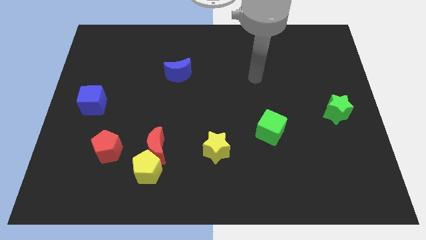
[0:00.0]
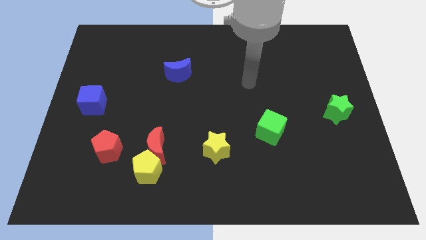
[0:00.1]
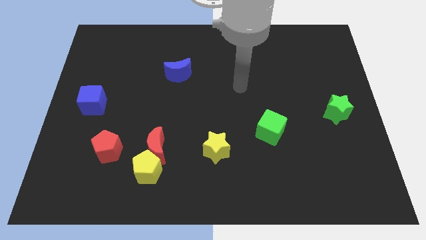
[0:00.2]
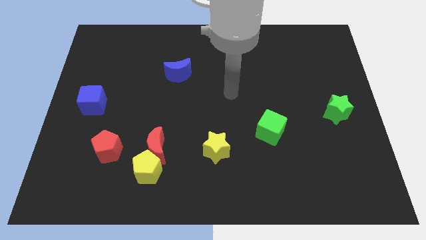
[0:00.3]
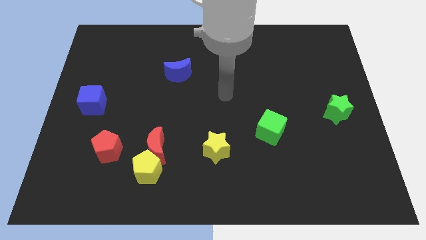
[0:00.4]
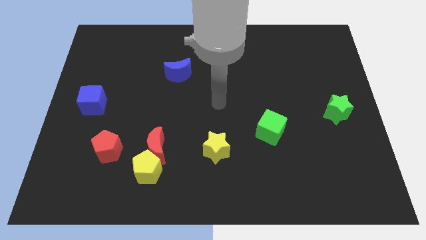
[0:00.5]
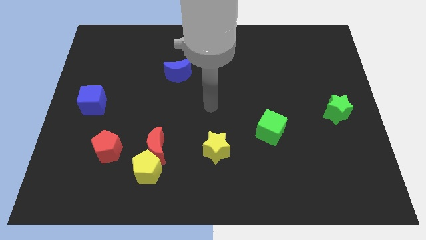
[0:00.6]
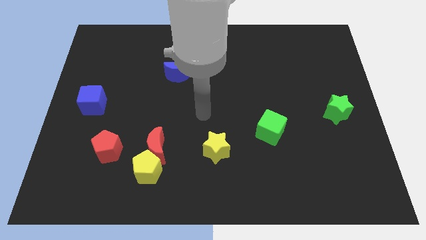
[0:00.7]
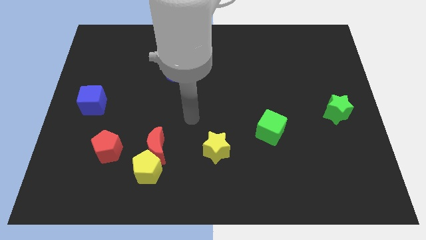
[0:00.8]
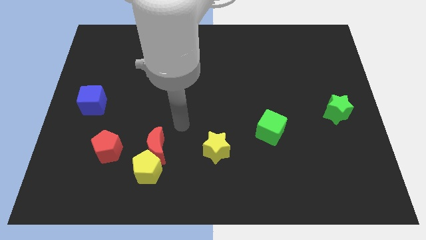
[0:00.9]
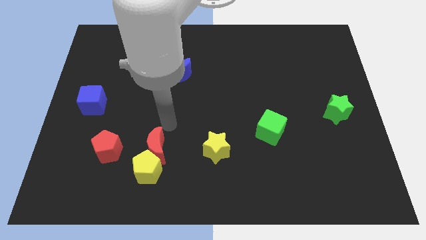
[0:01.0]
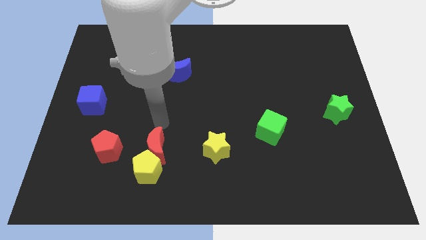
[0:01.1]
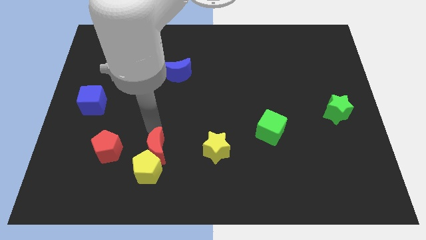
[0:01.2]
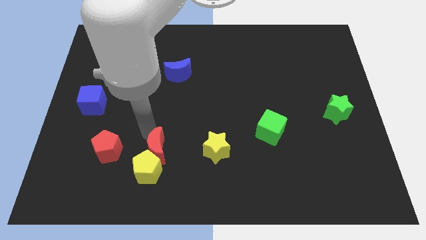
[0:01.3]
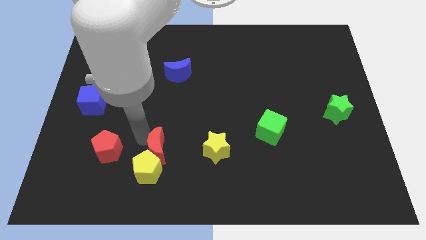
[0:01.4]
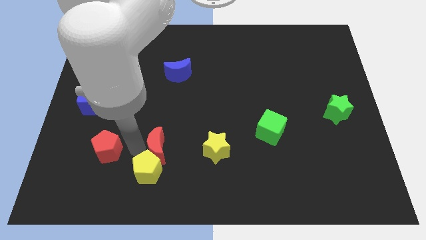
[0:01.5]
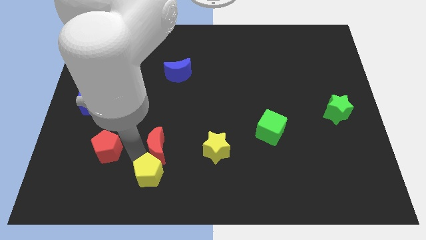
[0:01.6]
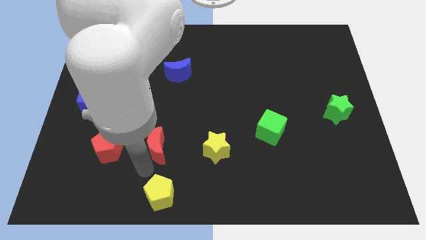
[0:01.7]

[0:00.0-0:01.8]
separate the red moon from the yellow pentagon

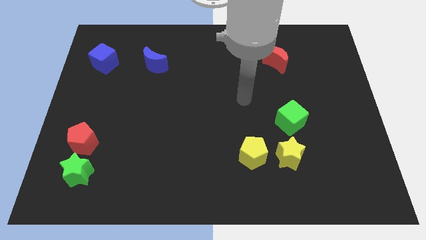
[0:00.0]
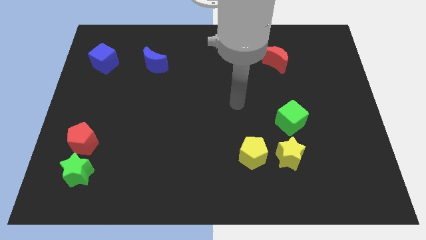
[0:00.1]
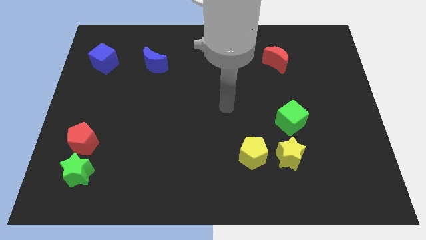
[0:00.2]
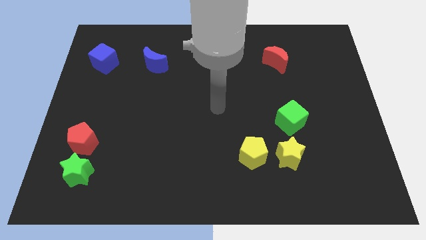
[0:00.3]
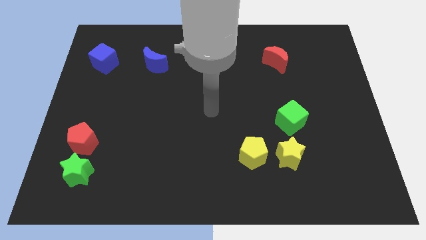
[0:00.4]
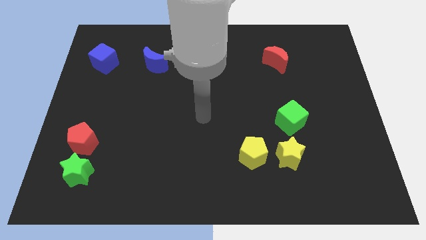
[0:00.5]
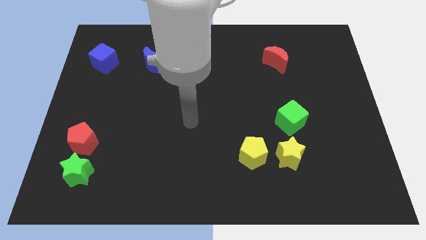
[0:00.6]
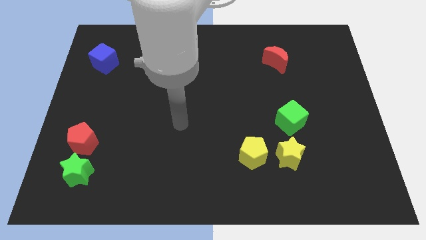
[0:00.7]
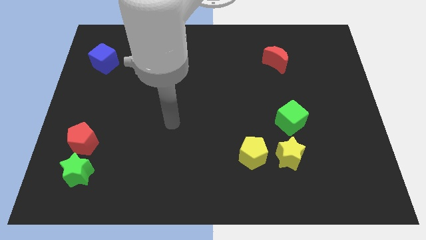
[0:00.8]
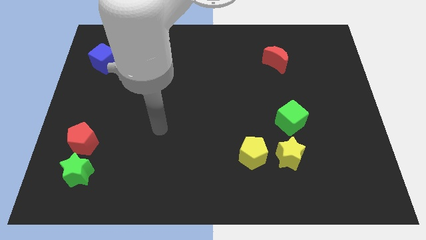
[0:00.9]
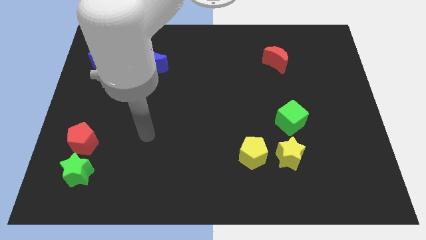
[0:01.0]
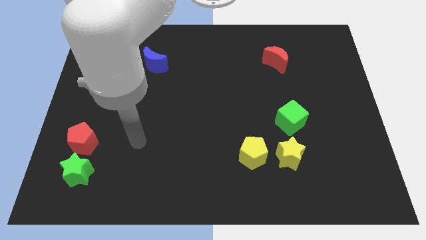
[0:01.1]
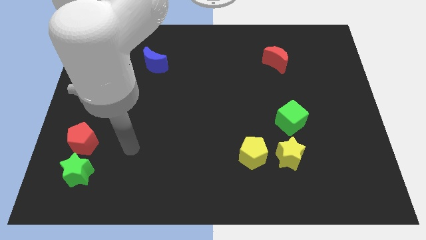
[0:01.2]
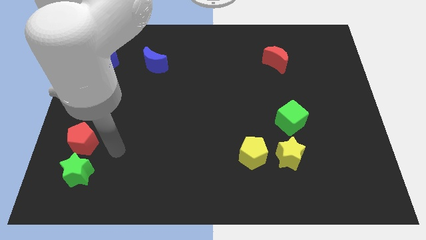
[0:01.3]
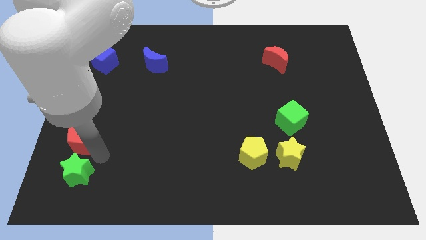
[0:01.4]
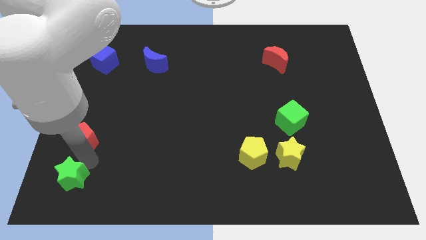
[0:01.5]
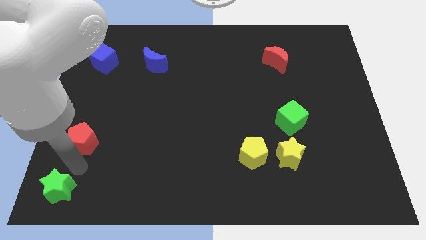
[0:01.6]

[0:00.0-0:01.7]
pull the red pentagon apart from the green star

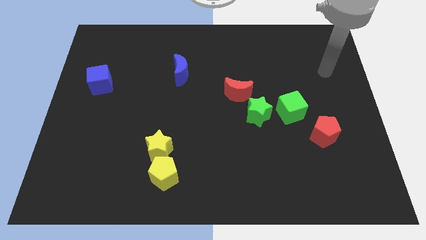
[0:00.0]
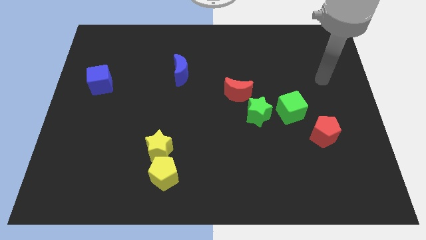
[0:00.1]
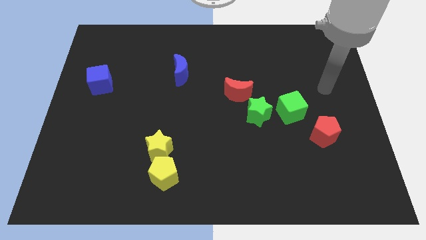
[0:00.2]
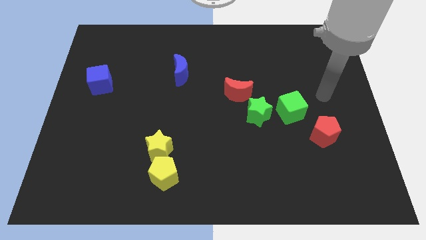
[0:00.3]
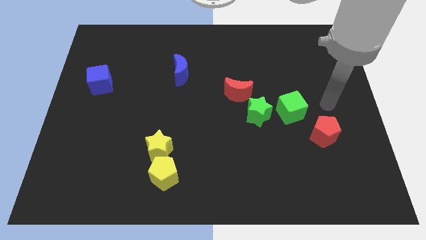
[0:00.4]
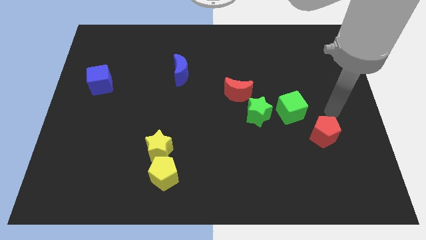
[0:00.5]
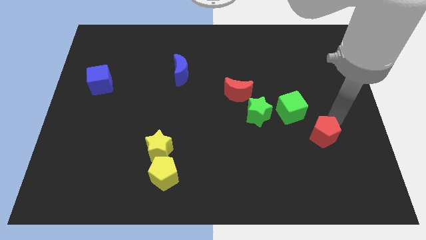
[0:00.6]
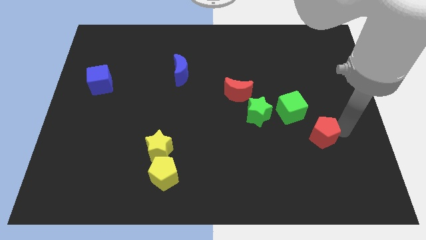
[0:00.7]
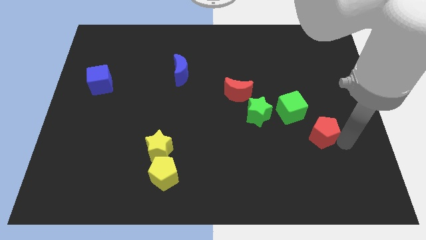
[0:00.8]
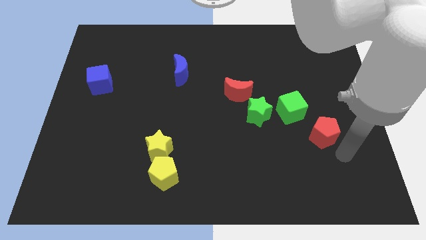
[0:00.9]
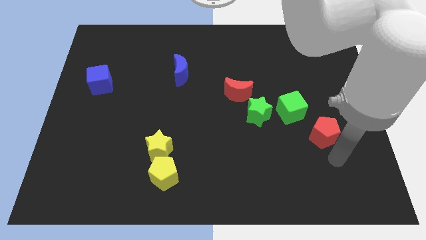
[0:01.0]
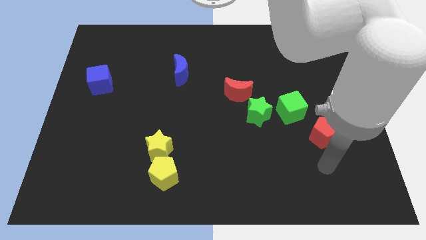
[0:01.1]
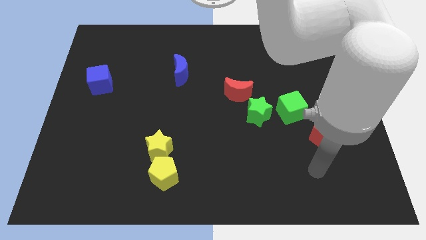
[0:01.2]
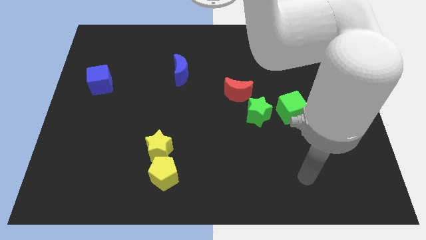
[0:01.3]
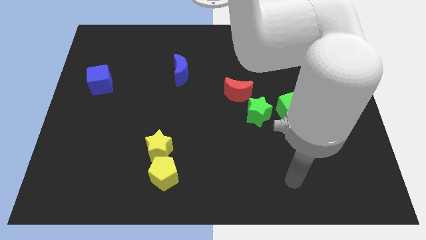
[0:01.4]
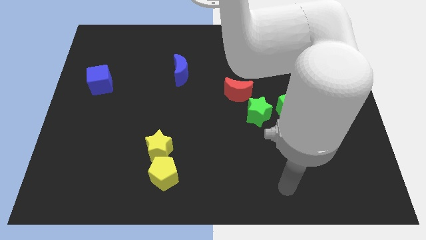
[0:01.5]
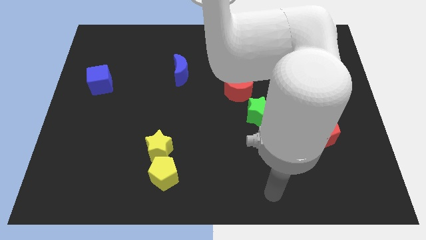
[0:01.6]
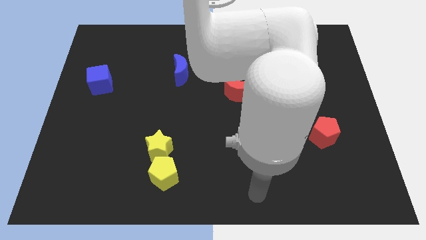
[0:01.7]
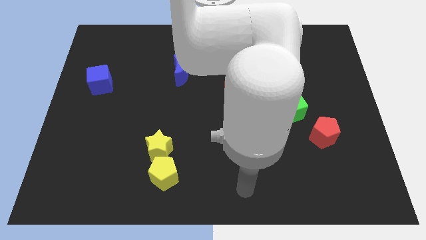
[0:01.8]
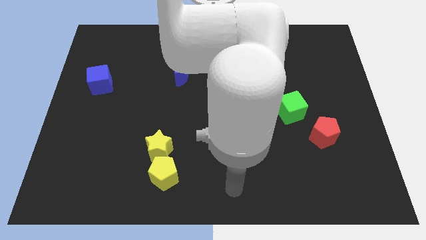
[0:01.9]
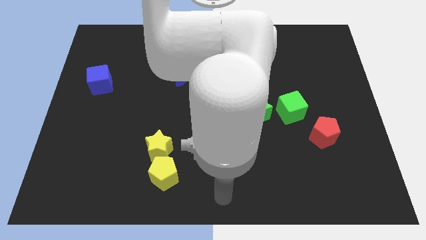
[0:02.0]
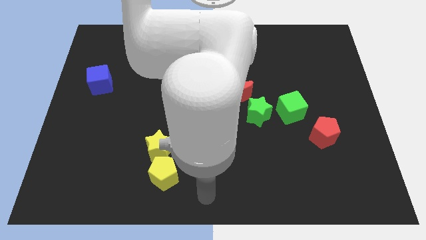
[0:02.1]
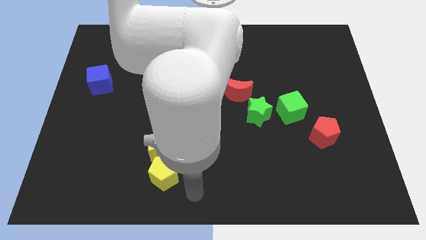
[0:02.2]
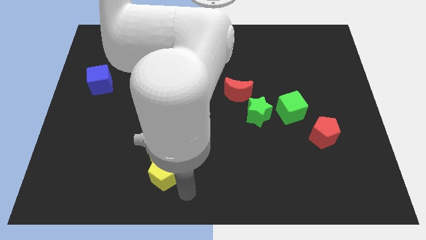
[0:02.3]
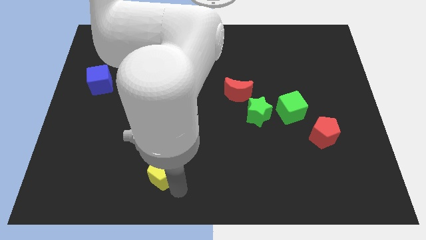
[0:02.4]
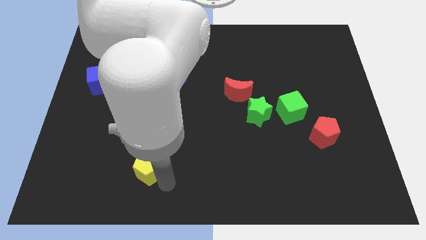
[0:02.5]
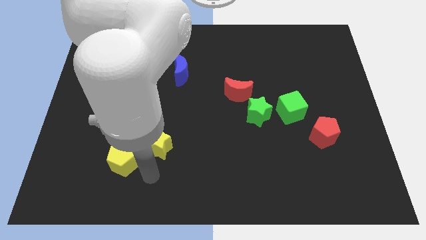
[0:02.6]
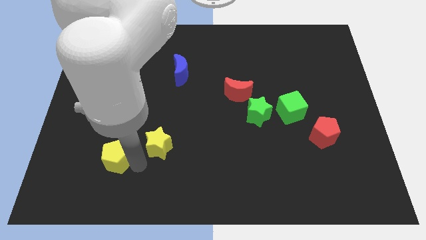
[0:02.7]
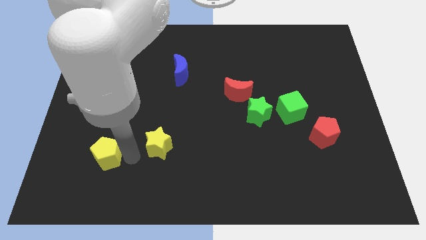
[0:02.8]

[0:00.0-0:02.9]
move the yellow star away from the yellow pentagon

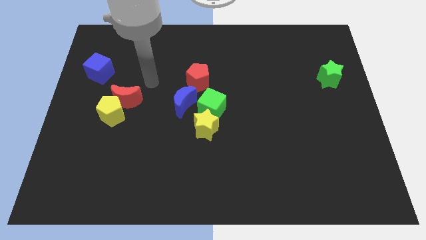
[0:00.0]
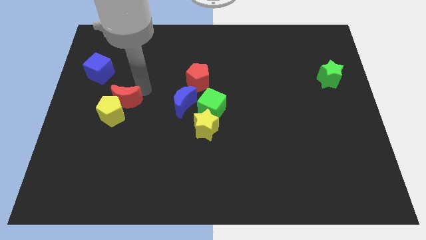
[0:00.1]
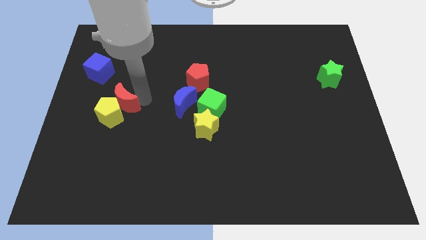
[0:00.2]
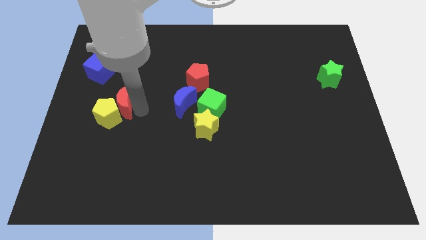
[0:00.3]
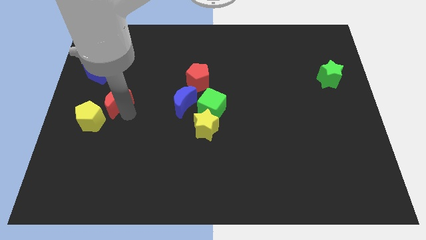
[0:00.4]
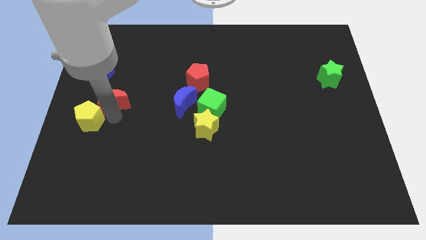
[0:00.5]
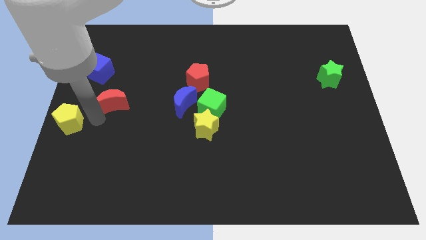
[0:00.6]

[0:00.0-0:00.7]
pull the red moon apart from the yellow pentagon

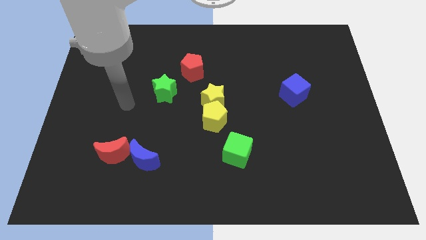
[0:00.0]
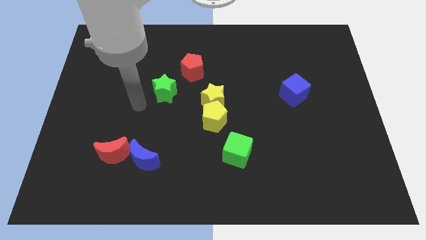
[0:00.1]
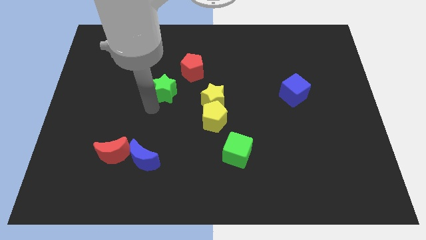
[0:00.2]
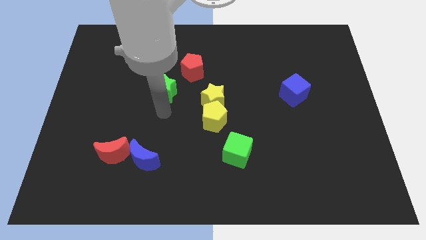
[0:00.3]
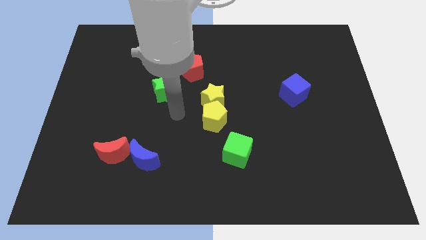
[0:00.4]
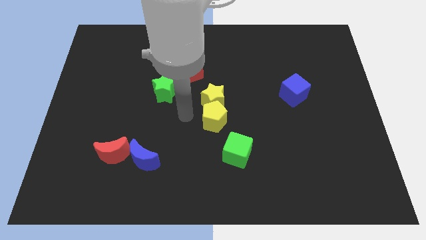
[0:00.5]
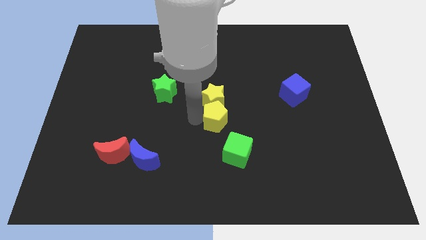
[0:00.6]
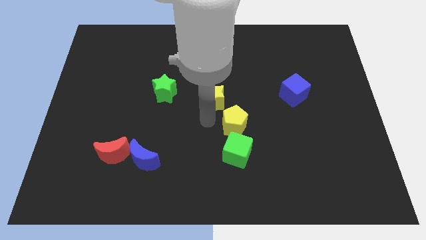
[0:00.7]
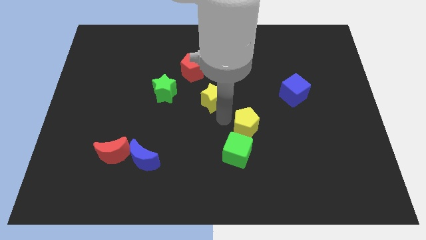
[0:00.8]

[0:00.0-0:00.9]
pull the yellow star apart from the yellow pentagon

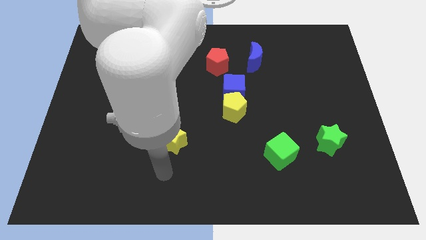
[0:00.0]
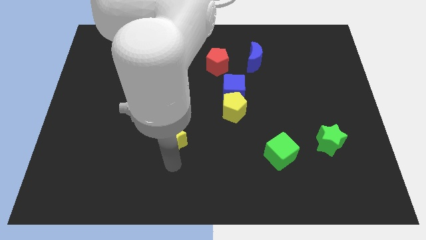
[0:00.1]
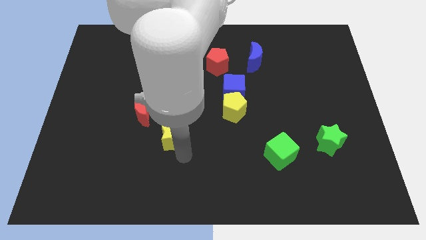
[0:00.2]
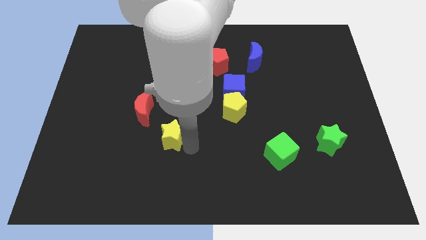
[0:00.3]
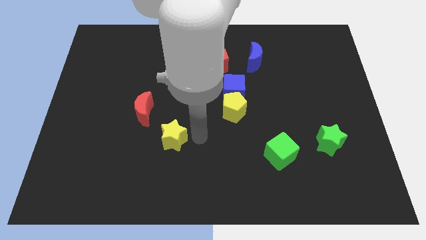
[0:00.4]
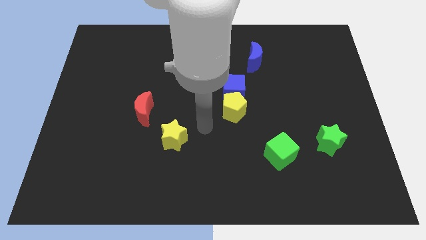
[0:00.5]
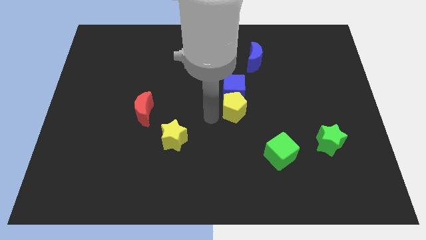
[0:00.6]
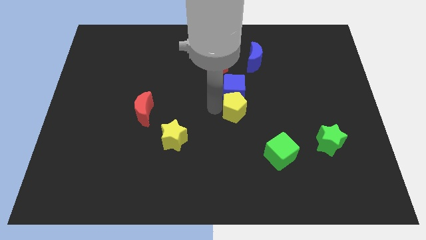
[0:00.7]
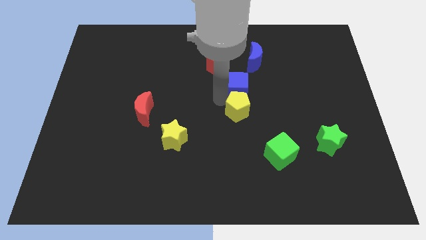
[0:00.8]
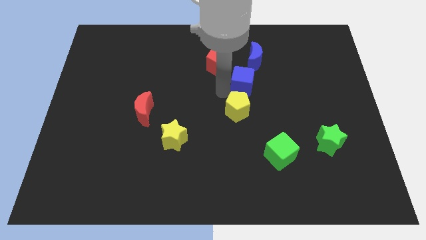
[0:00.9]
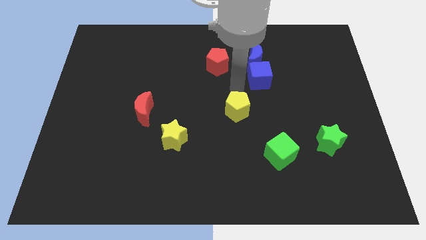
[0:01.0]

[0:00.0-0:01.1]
separate the yellow pentagon from the blue cube

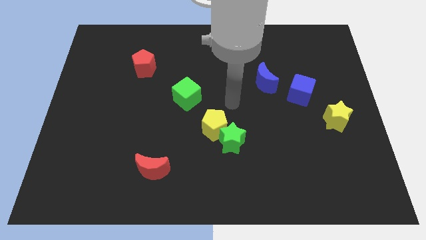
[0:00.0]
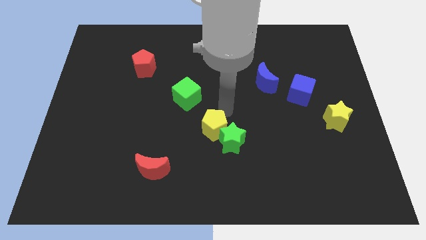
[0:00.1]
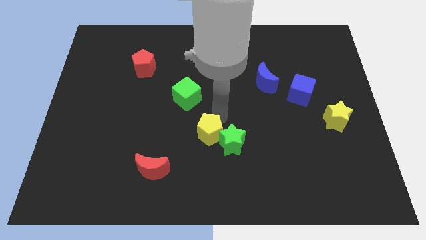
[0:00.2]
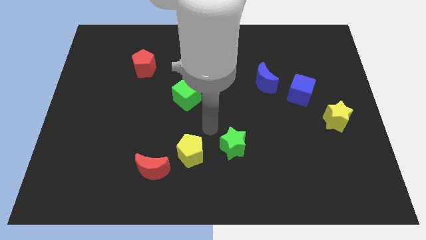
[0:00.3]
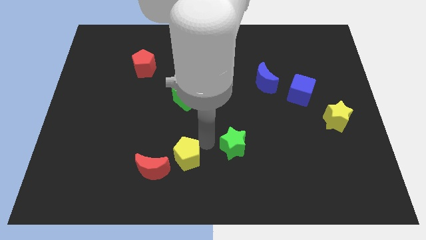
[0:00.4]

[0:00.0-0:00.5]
move the green star away from the yellow pentagon
